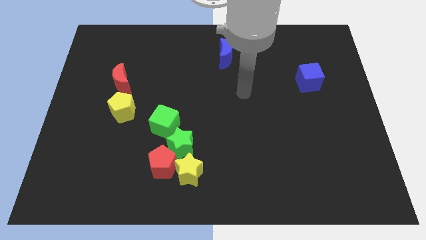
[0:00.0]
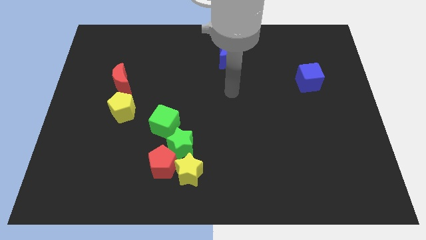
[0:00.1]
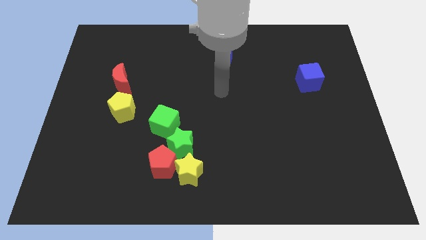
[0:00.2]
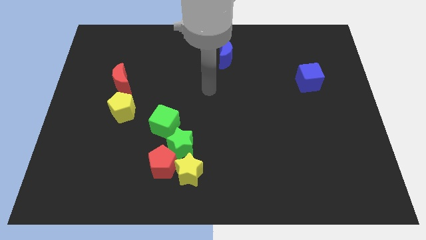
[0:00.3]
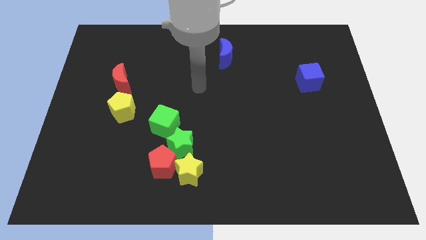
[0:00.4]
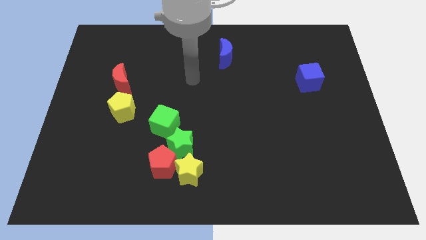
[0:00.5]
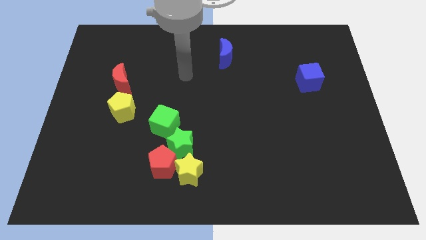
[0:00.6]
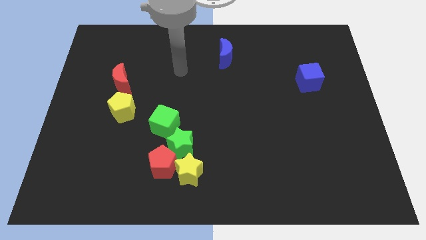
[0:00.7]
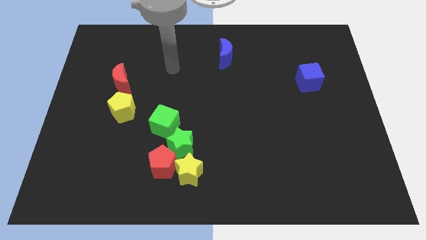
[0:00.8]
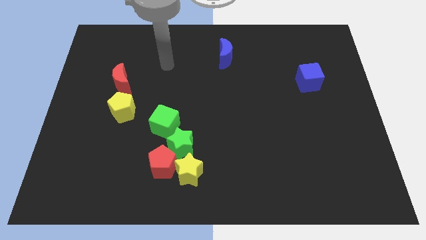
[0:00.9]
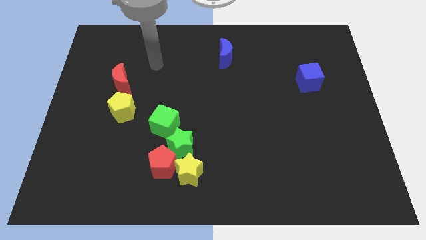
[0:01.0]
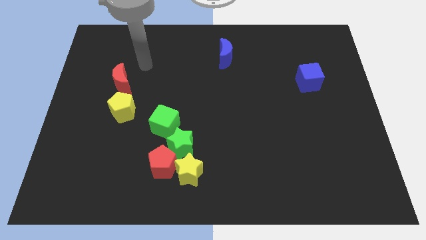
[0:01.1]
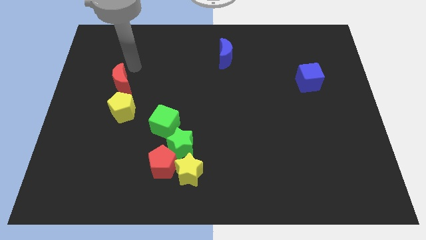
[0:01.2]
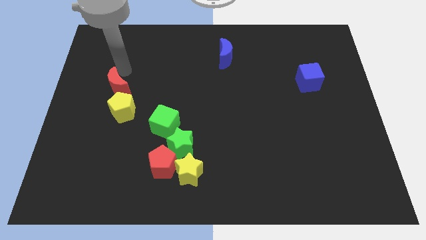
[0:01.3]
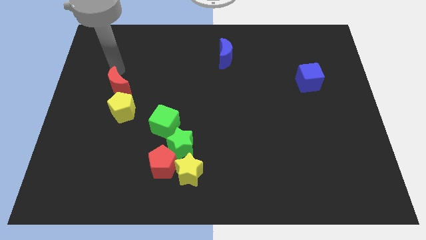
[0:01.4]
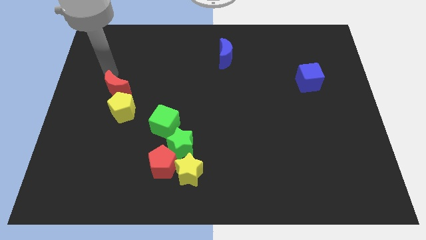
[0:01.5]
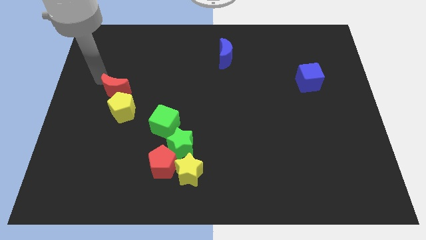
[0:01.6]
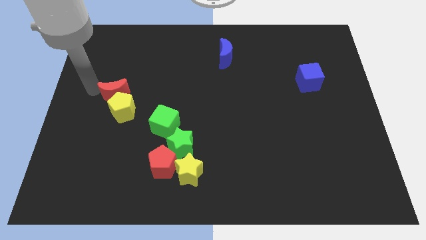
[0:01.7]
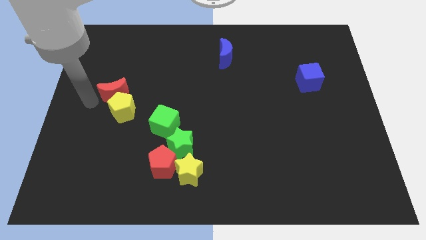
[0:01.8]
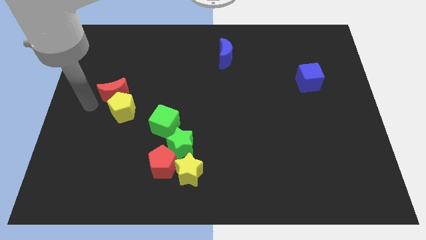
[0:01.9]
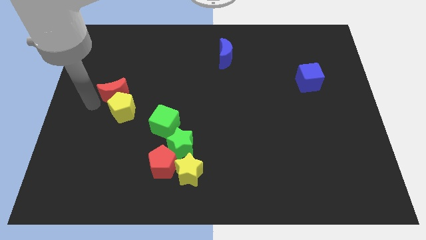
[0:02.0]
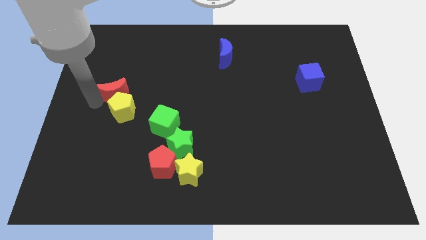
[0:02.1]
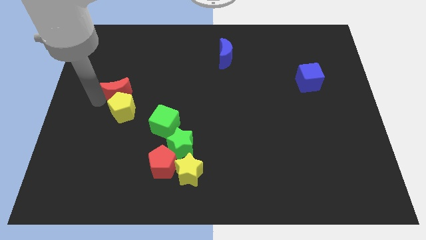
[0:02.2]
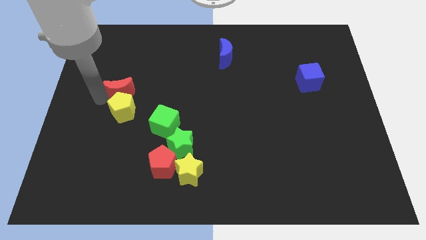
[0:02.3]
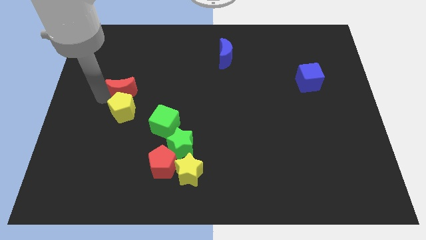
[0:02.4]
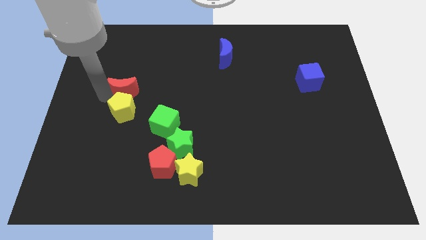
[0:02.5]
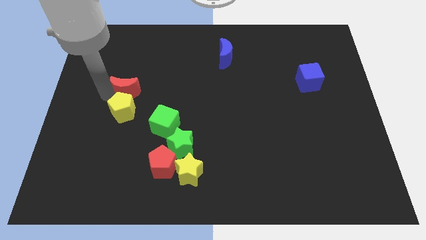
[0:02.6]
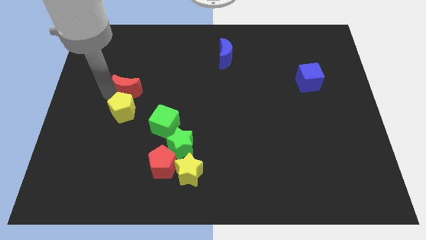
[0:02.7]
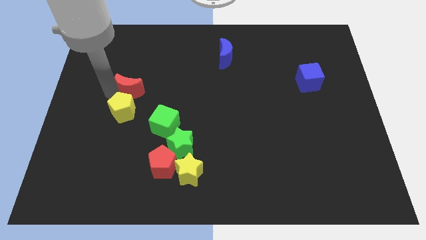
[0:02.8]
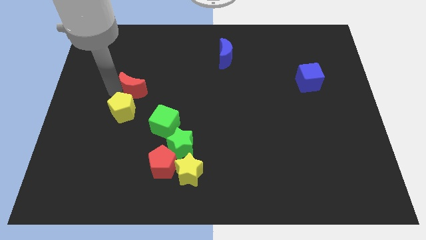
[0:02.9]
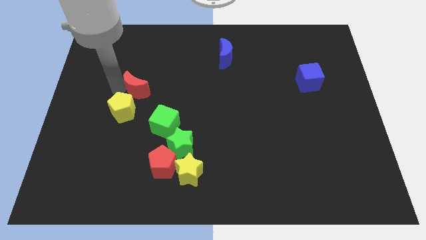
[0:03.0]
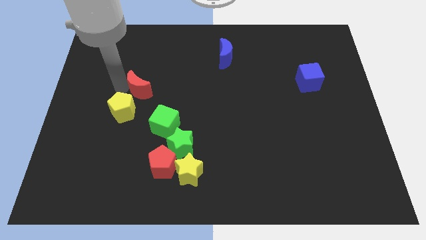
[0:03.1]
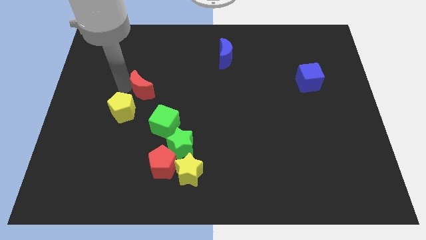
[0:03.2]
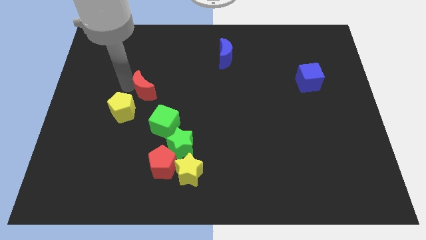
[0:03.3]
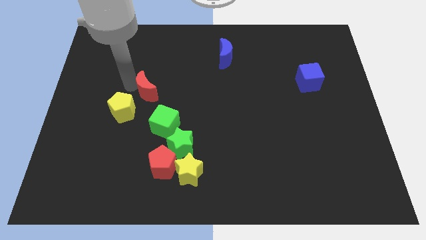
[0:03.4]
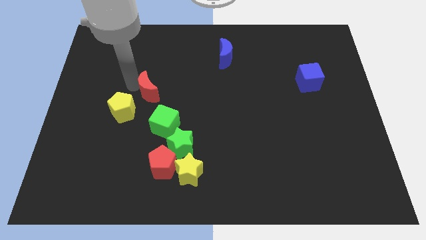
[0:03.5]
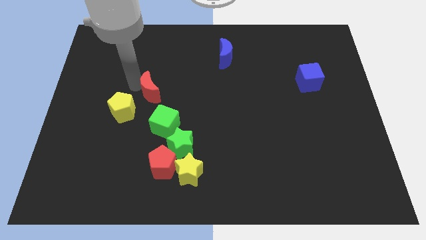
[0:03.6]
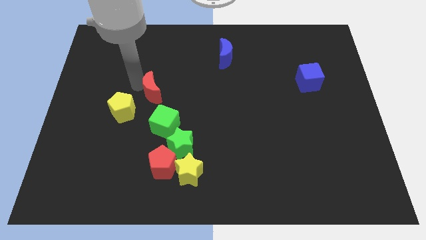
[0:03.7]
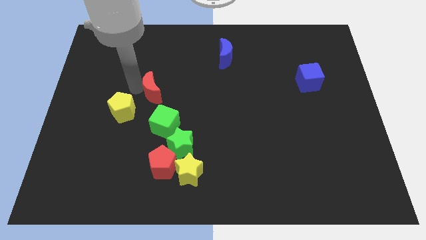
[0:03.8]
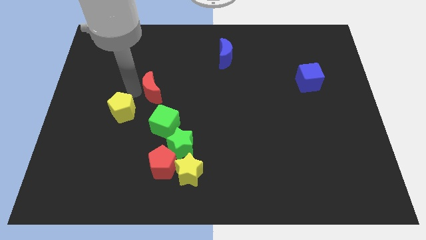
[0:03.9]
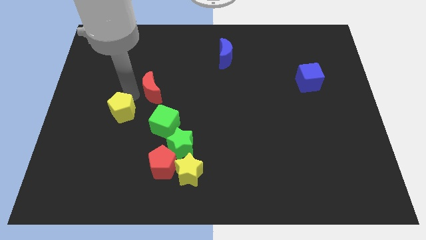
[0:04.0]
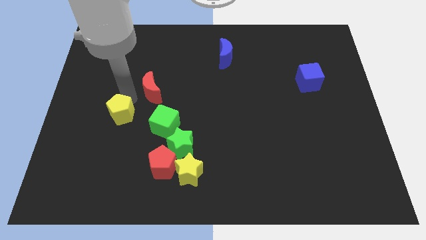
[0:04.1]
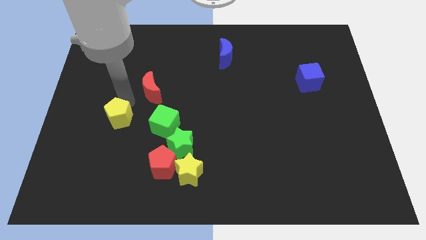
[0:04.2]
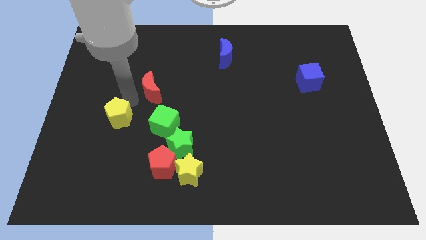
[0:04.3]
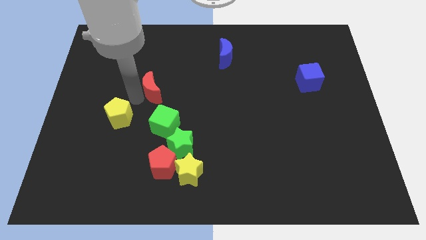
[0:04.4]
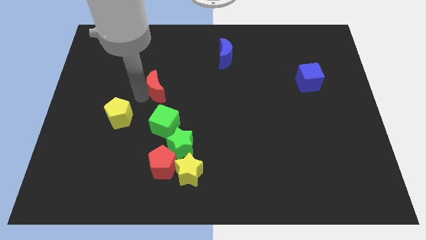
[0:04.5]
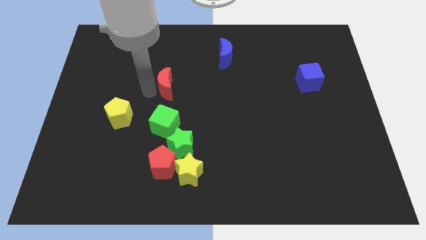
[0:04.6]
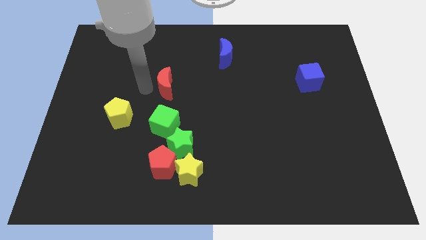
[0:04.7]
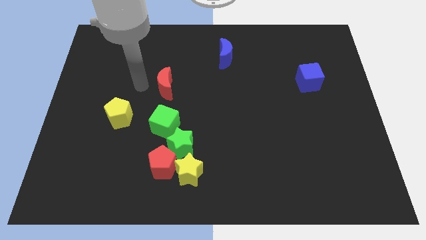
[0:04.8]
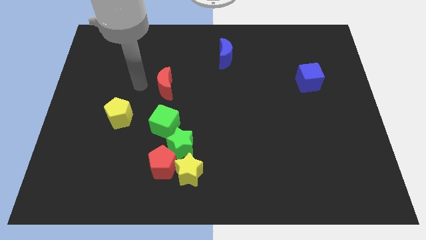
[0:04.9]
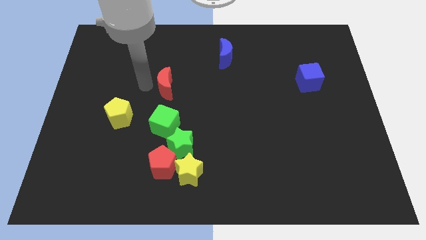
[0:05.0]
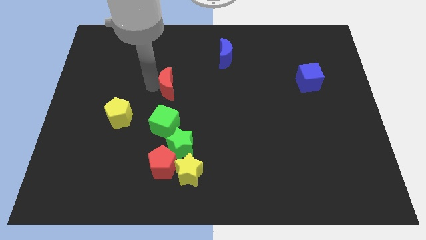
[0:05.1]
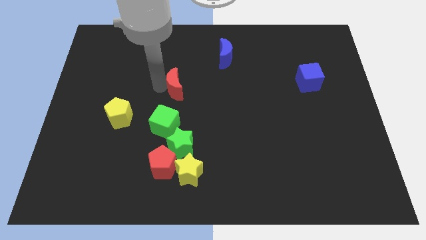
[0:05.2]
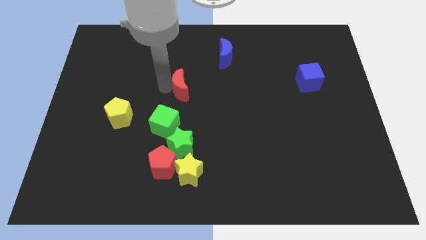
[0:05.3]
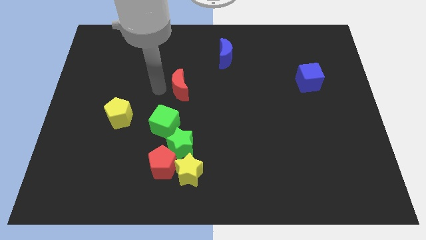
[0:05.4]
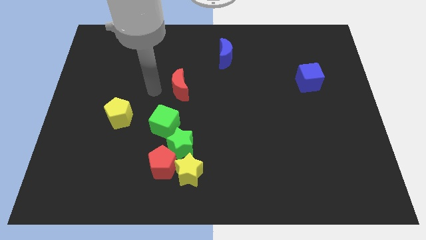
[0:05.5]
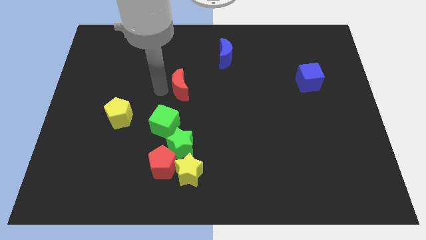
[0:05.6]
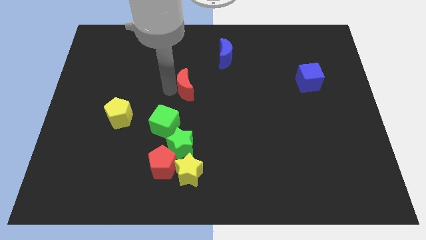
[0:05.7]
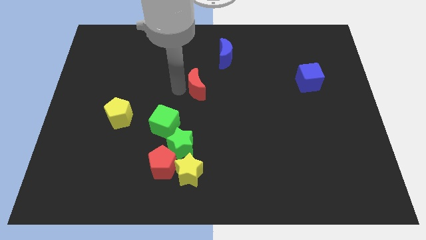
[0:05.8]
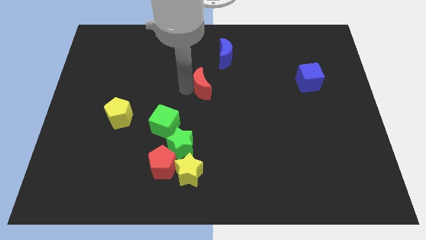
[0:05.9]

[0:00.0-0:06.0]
push the red moon right

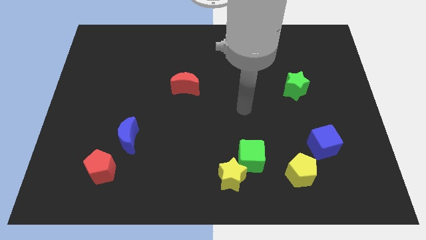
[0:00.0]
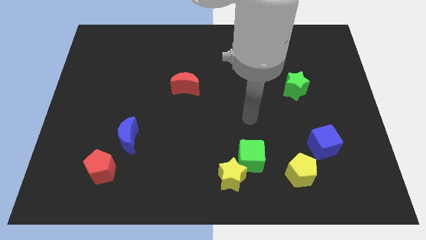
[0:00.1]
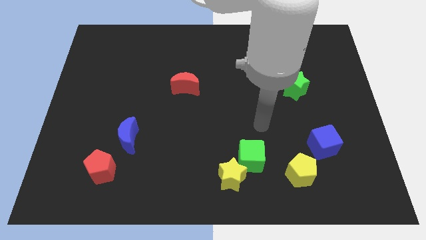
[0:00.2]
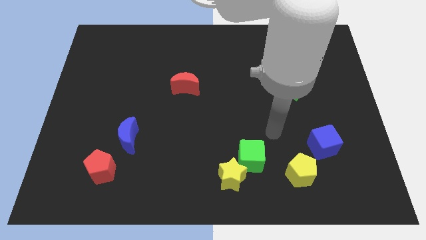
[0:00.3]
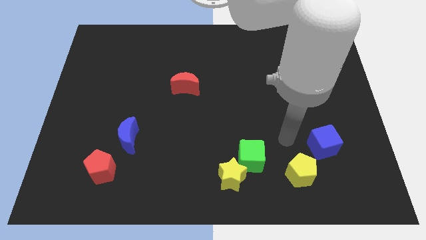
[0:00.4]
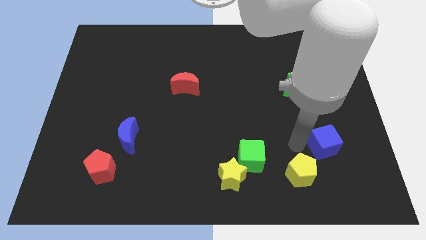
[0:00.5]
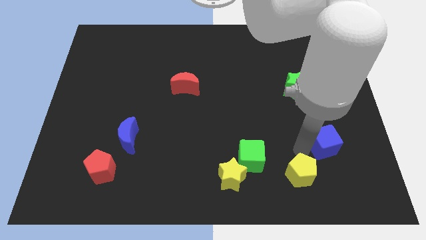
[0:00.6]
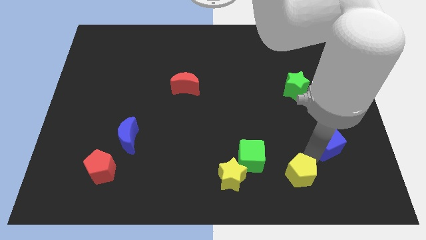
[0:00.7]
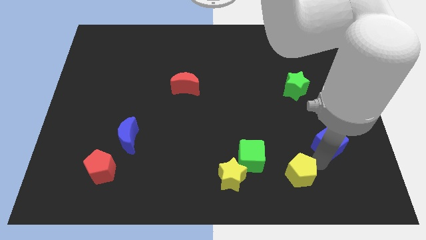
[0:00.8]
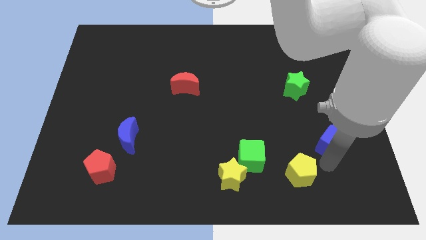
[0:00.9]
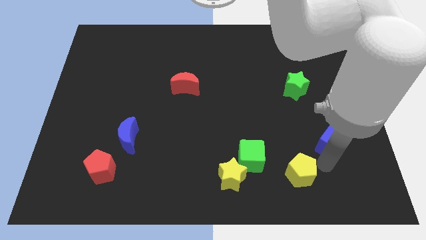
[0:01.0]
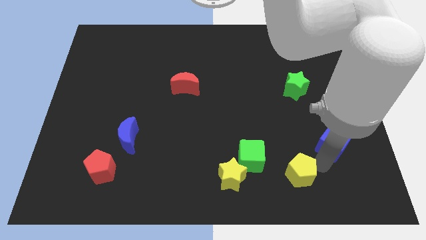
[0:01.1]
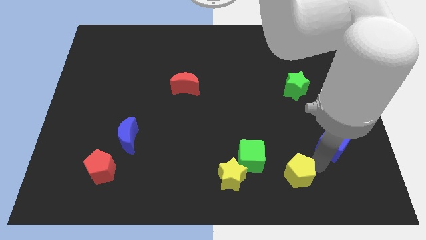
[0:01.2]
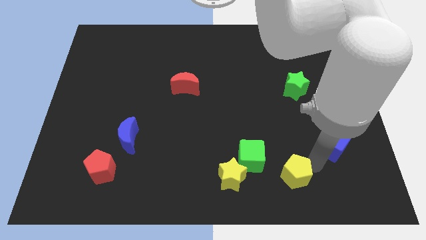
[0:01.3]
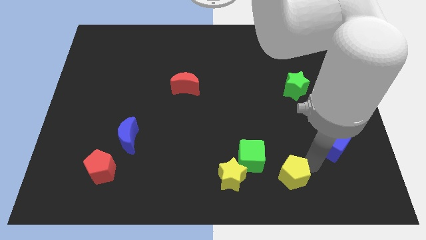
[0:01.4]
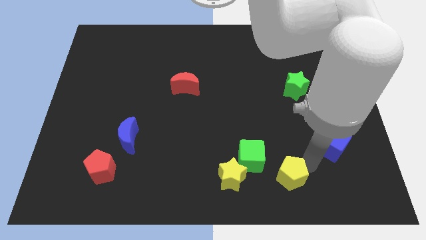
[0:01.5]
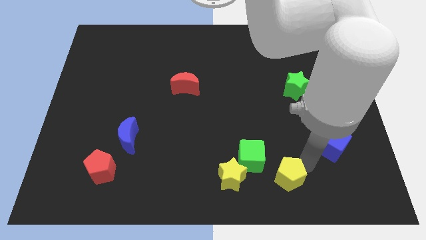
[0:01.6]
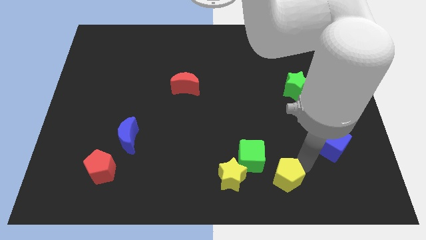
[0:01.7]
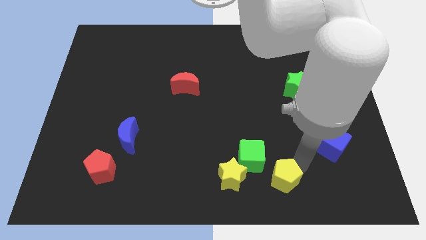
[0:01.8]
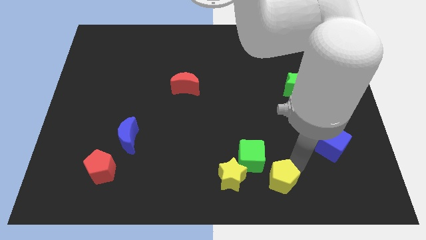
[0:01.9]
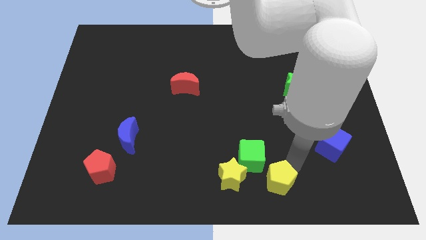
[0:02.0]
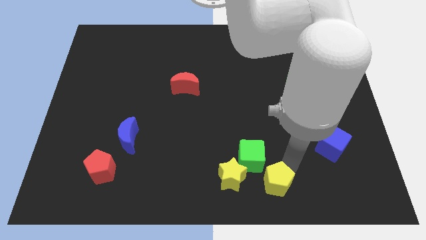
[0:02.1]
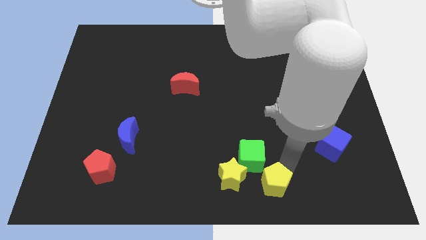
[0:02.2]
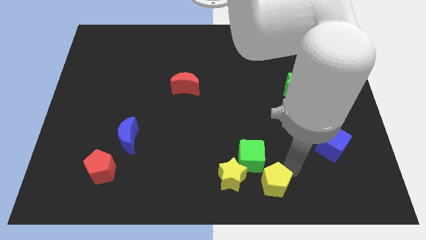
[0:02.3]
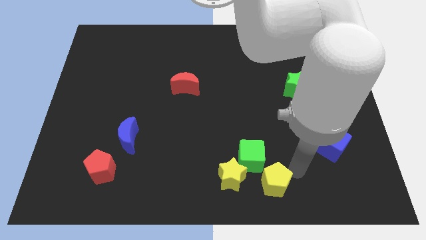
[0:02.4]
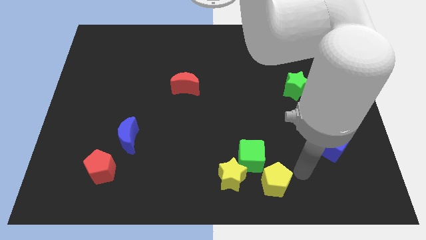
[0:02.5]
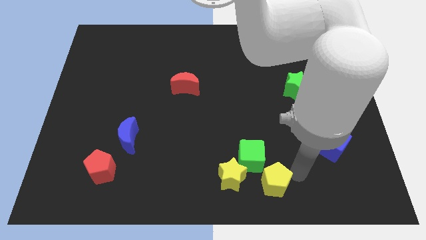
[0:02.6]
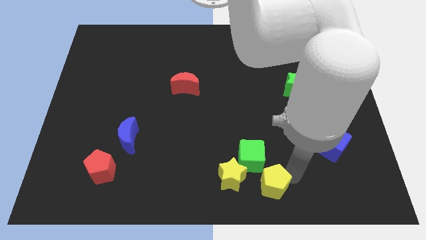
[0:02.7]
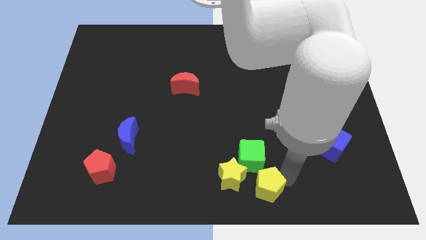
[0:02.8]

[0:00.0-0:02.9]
move the yellow pentagon to the left a bit
